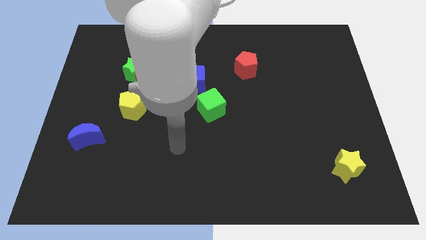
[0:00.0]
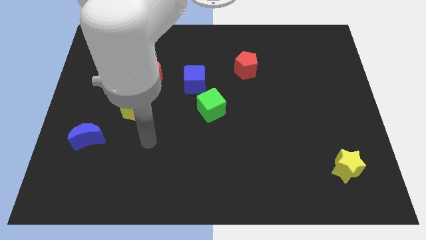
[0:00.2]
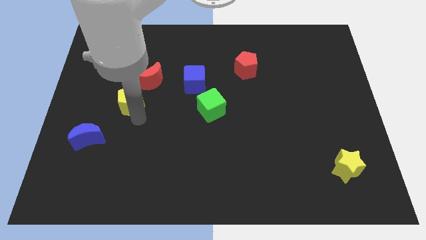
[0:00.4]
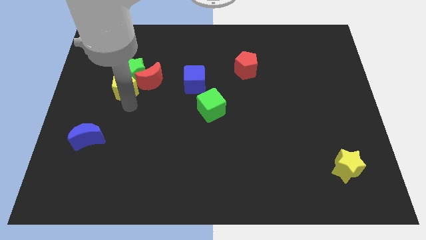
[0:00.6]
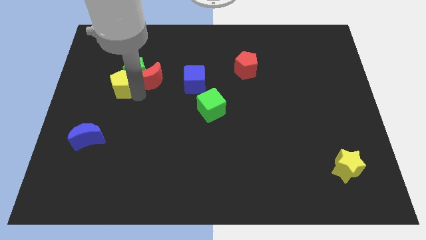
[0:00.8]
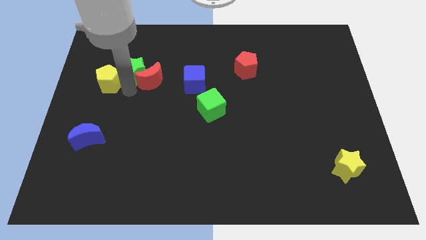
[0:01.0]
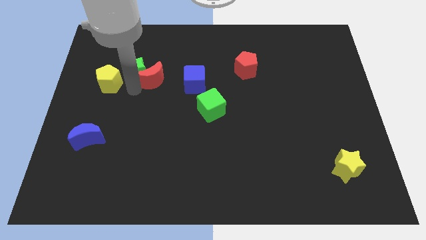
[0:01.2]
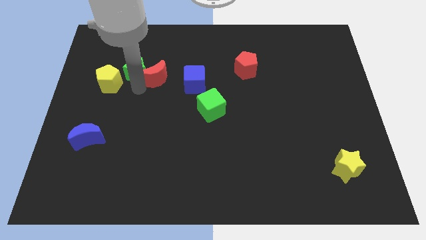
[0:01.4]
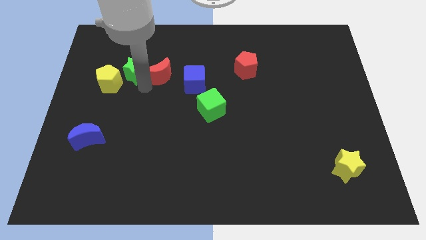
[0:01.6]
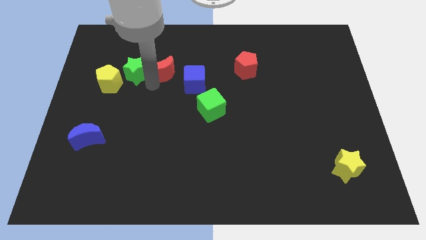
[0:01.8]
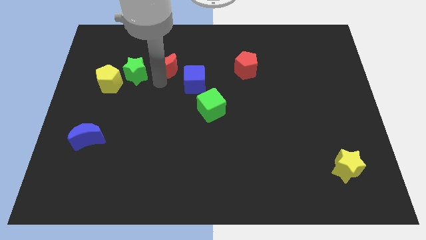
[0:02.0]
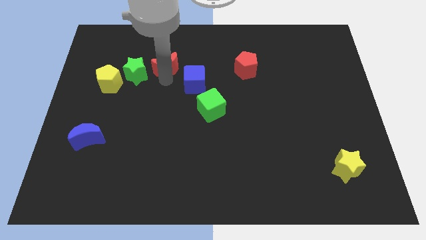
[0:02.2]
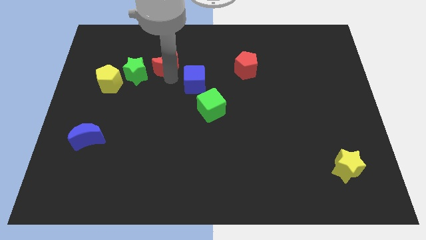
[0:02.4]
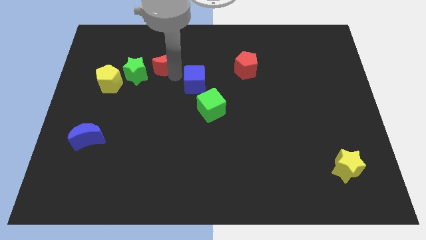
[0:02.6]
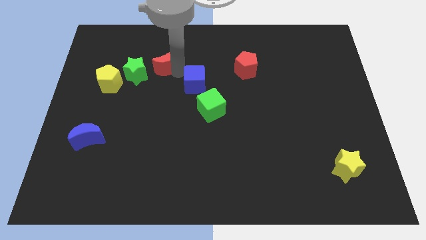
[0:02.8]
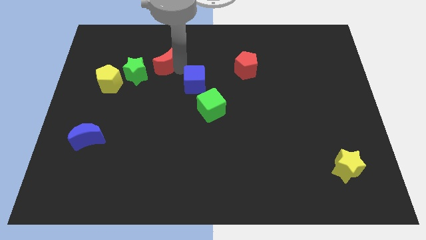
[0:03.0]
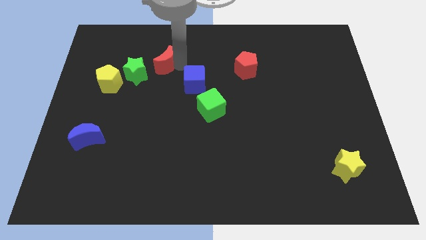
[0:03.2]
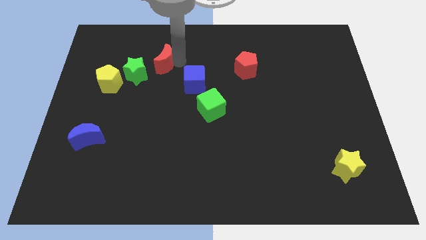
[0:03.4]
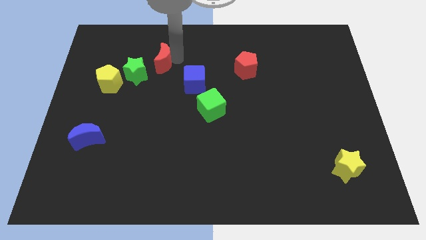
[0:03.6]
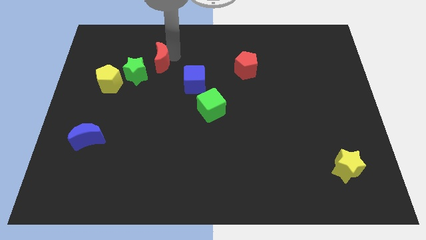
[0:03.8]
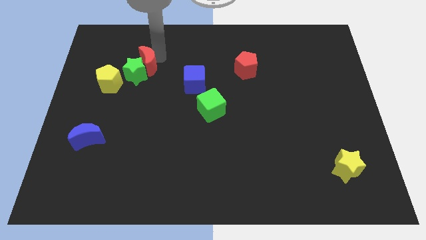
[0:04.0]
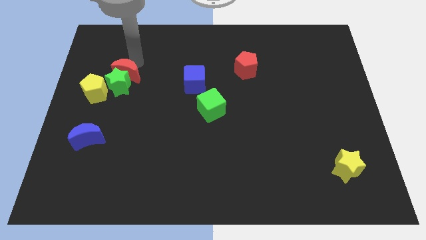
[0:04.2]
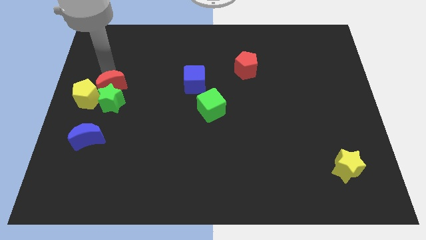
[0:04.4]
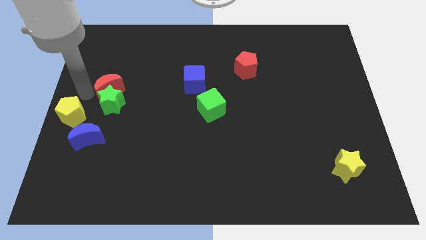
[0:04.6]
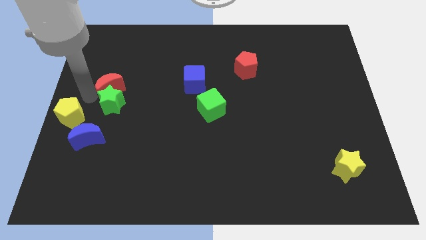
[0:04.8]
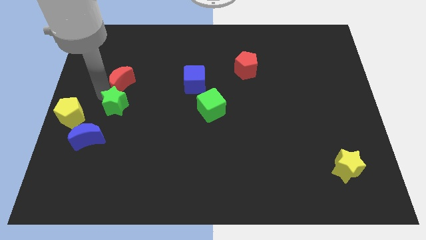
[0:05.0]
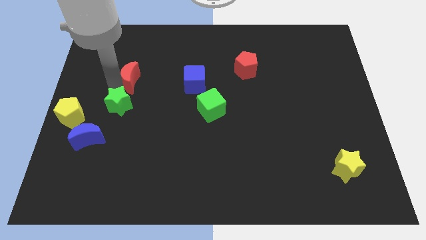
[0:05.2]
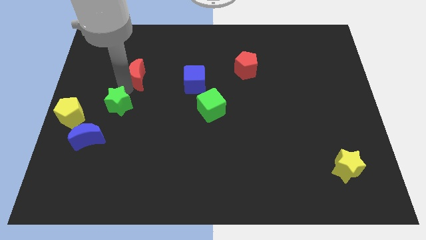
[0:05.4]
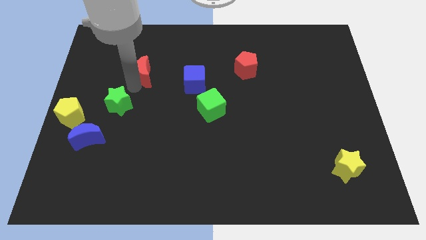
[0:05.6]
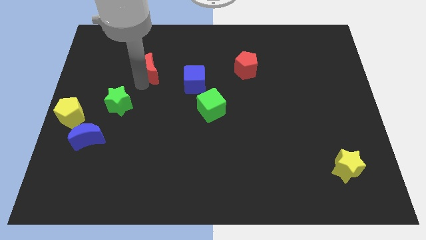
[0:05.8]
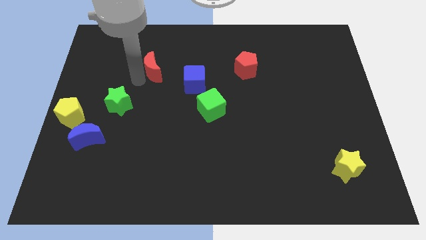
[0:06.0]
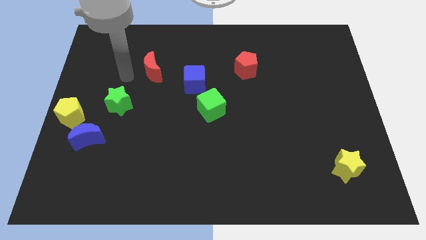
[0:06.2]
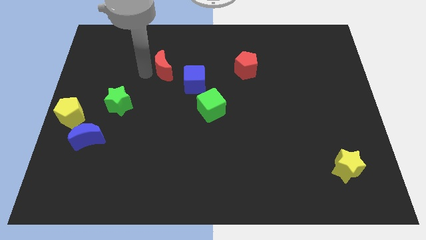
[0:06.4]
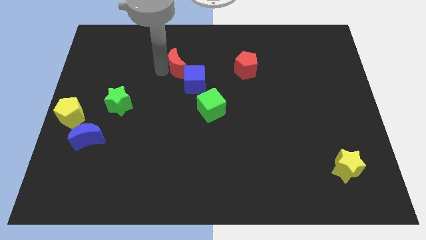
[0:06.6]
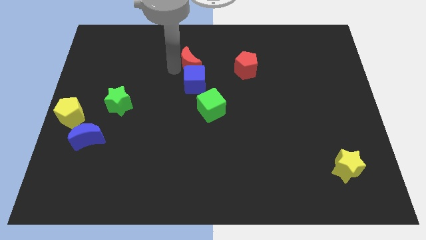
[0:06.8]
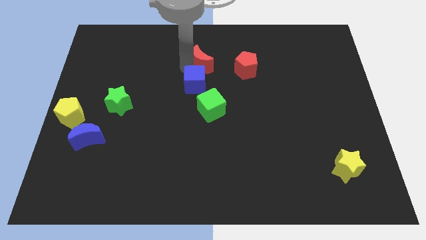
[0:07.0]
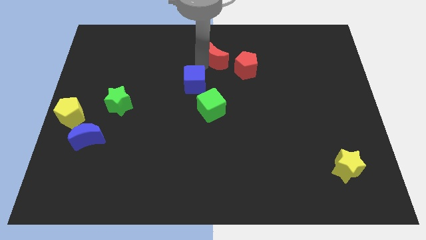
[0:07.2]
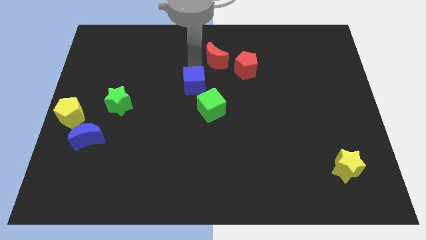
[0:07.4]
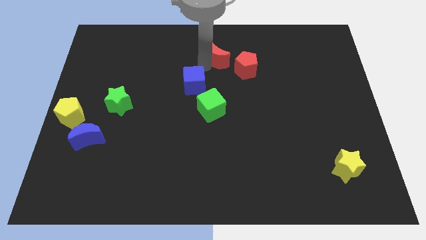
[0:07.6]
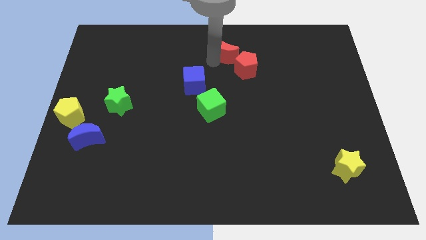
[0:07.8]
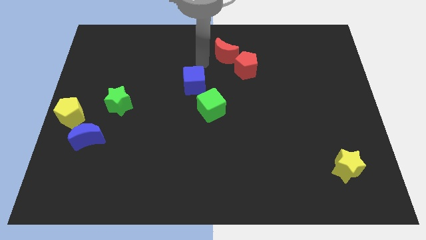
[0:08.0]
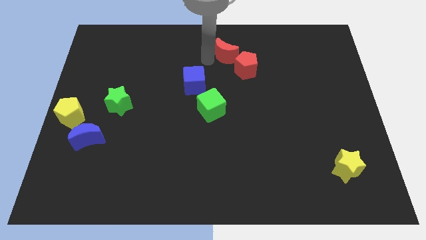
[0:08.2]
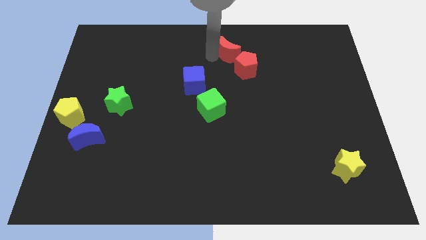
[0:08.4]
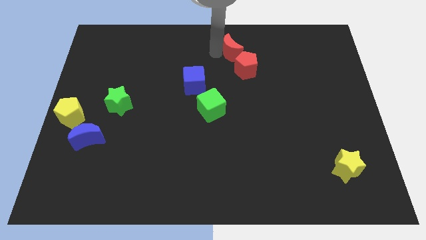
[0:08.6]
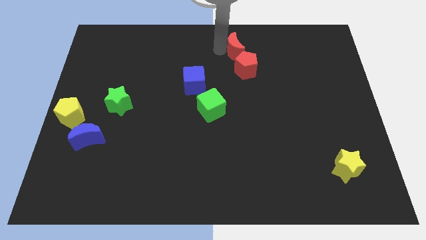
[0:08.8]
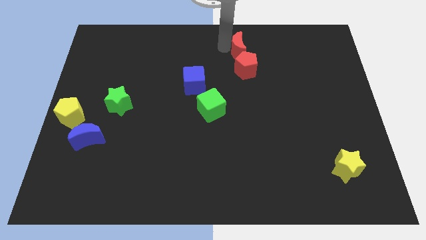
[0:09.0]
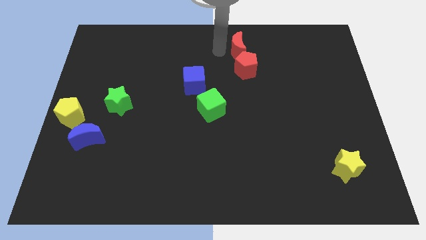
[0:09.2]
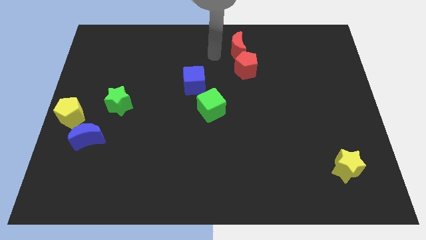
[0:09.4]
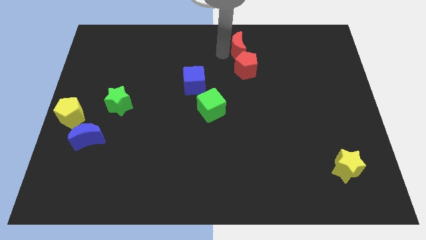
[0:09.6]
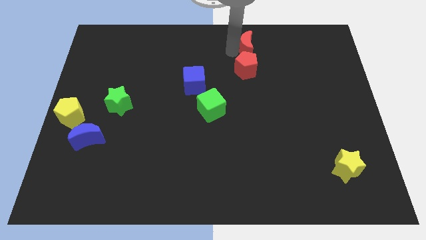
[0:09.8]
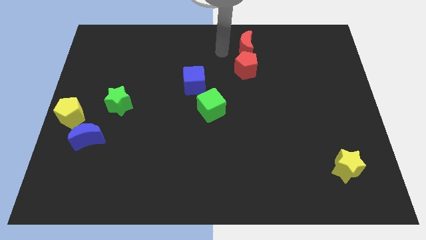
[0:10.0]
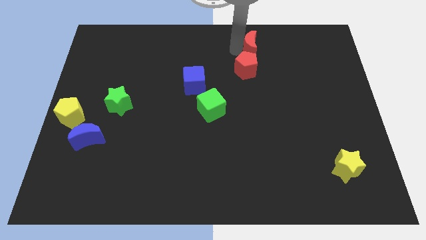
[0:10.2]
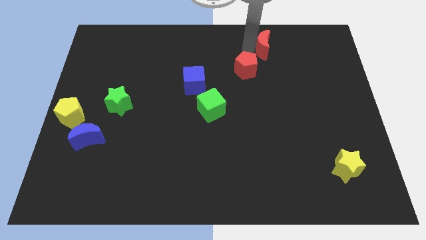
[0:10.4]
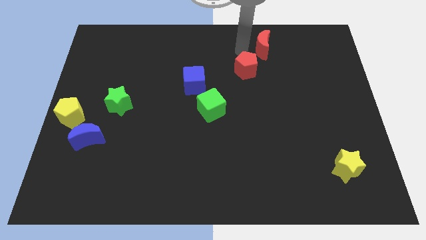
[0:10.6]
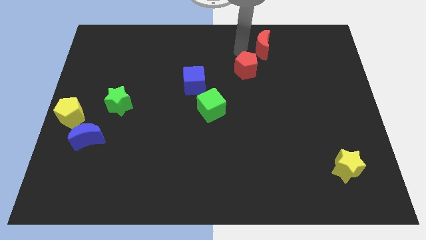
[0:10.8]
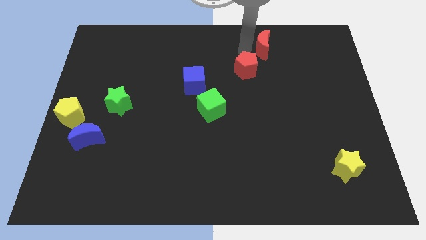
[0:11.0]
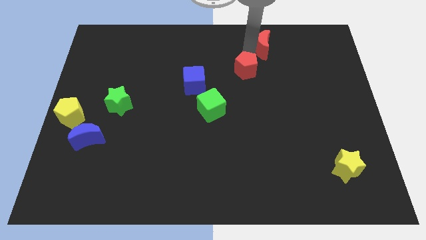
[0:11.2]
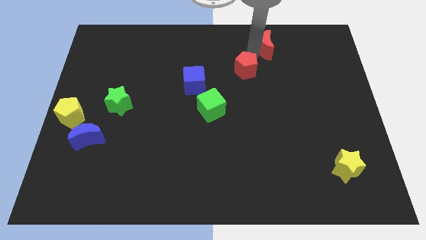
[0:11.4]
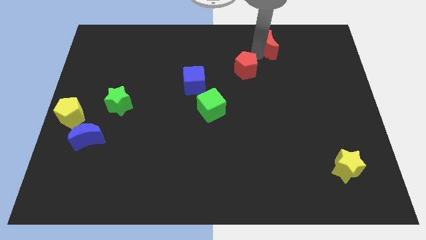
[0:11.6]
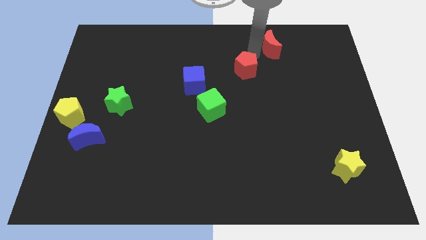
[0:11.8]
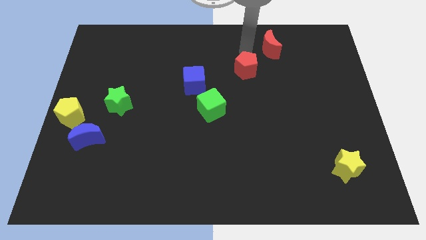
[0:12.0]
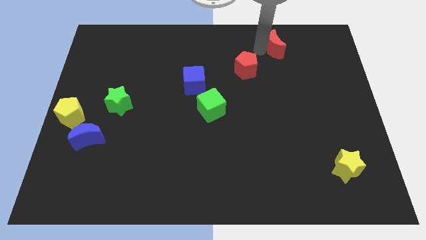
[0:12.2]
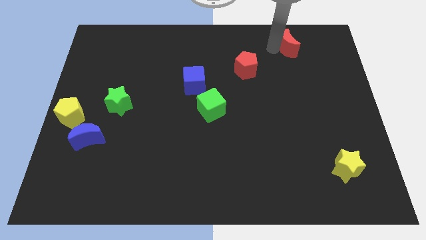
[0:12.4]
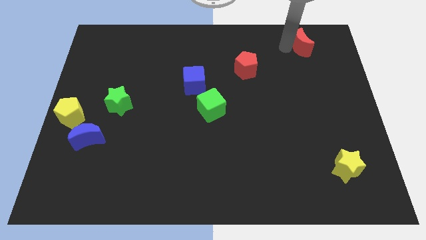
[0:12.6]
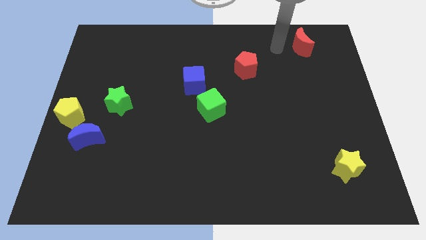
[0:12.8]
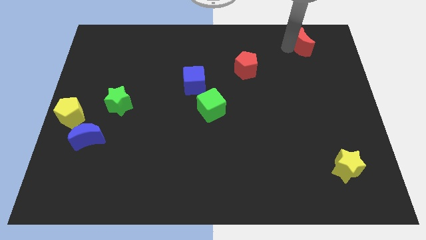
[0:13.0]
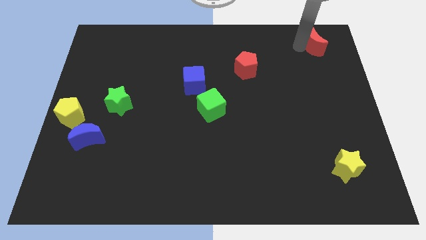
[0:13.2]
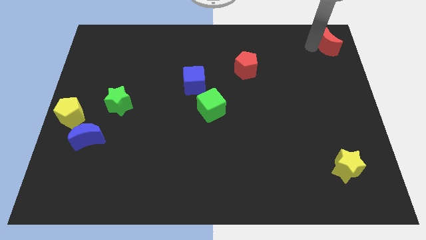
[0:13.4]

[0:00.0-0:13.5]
move the red moon to the top right
